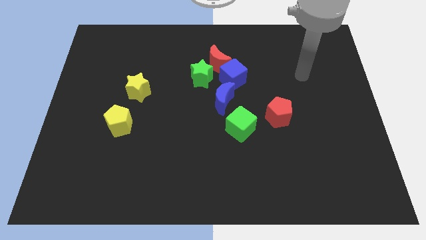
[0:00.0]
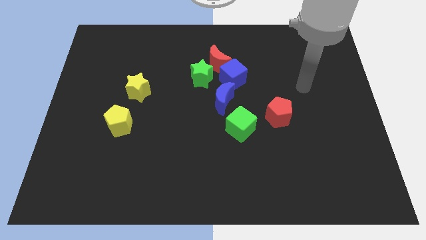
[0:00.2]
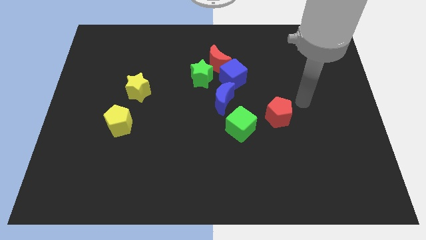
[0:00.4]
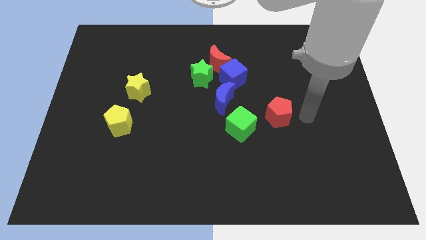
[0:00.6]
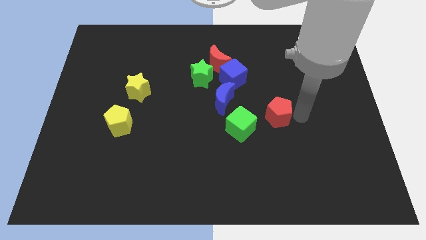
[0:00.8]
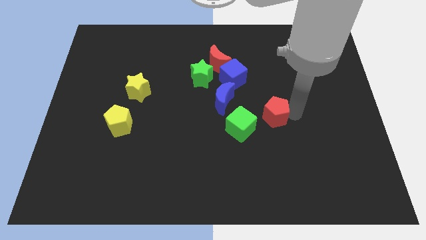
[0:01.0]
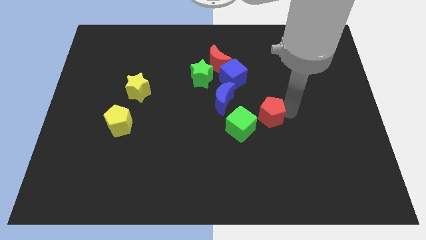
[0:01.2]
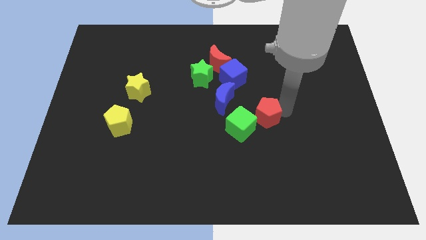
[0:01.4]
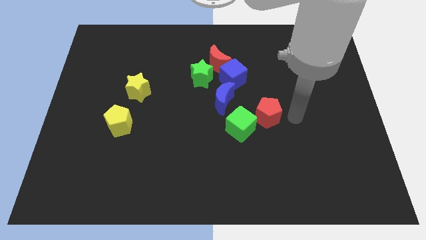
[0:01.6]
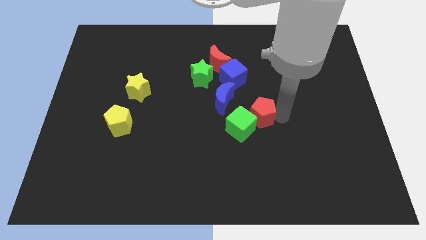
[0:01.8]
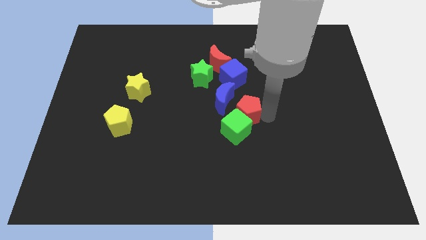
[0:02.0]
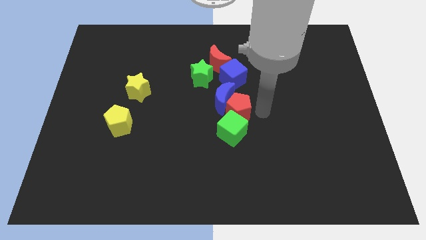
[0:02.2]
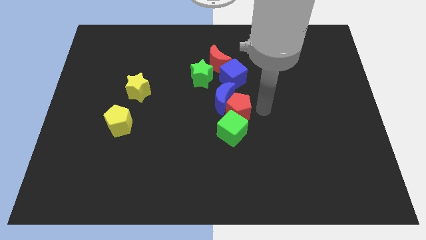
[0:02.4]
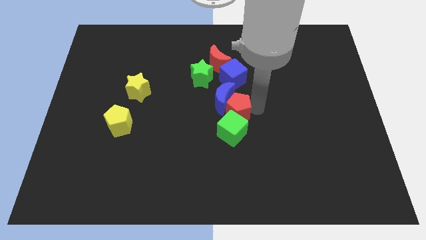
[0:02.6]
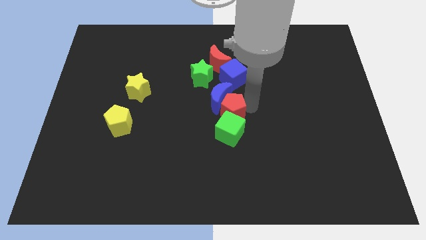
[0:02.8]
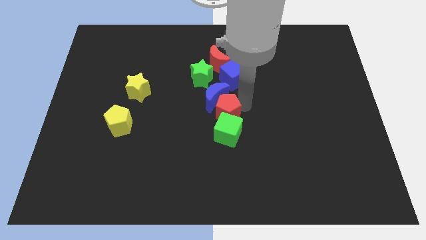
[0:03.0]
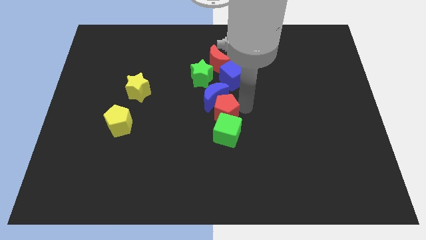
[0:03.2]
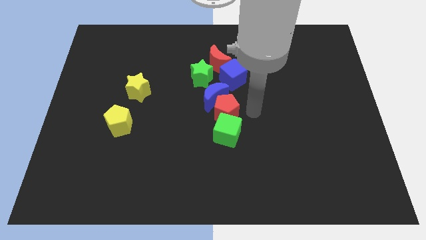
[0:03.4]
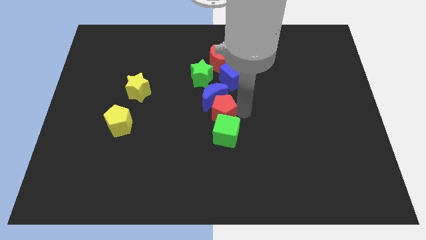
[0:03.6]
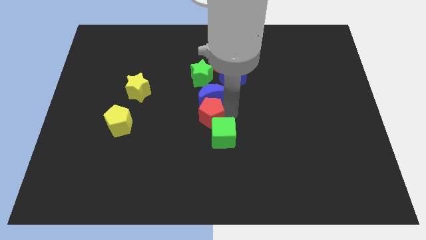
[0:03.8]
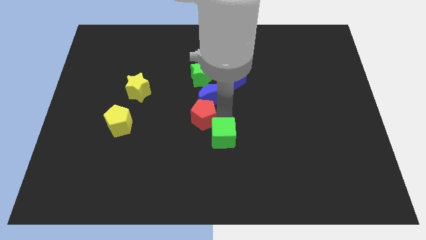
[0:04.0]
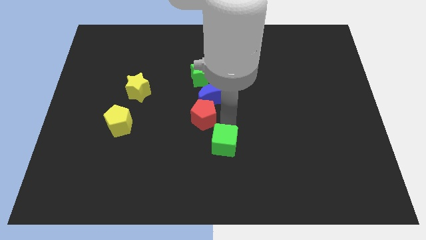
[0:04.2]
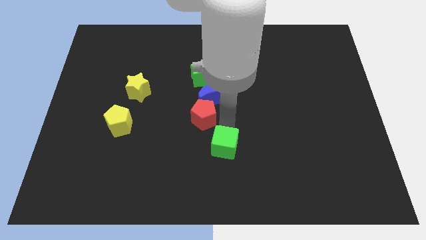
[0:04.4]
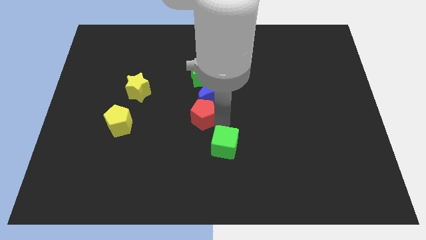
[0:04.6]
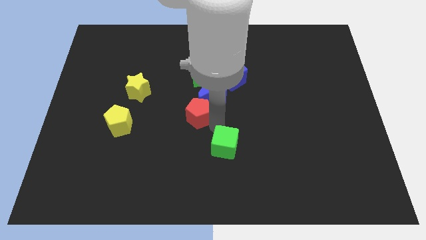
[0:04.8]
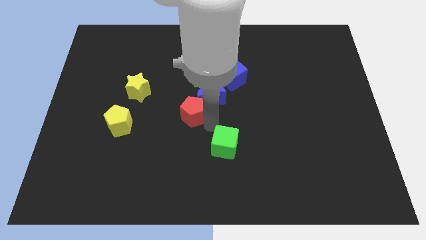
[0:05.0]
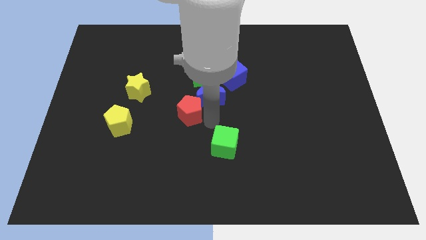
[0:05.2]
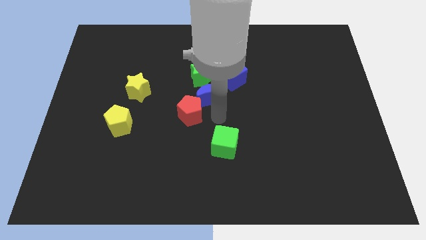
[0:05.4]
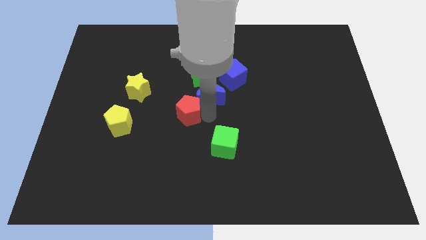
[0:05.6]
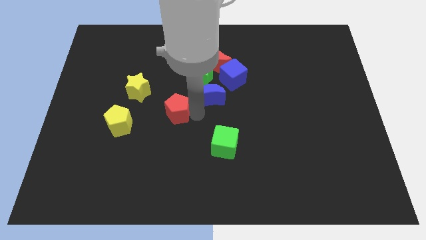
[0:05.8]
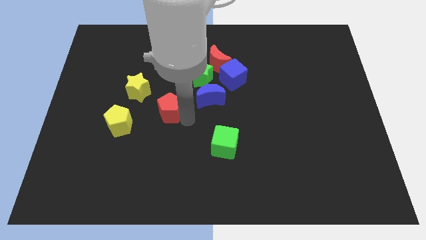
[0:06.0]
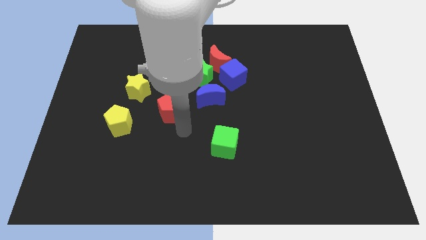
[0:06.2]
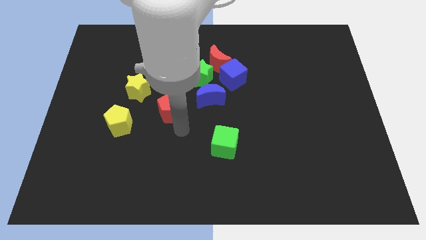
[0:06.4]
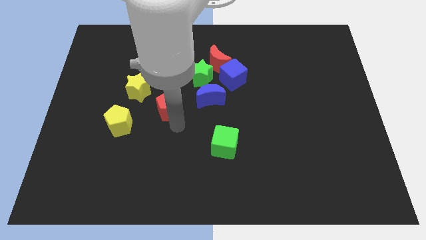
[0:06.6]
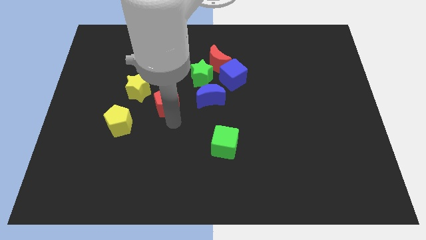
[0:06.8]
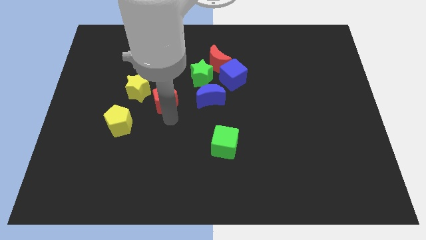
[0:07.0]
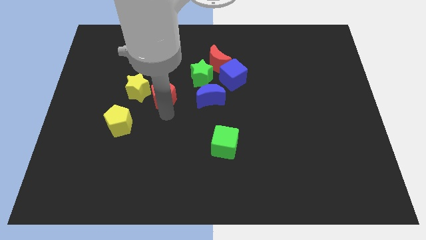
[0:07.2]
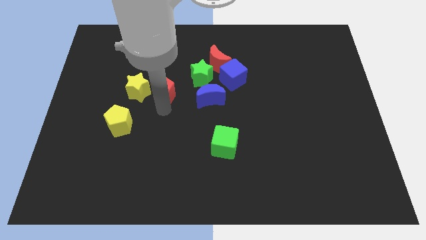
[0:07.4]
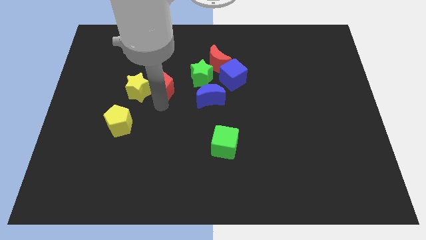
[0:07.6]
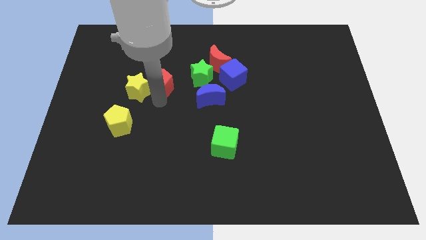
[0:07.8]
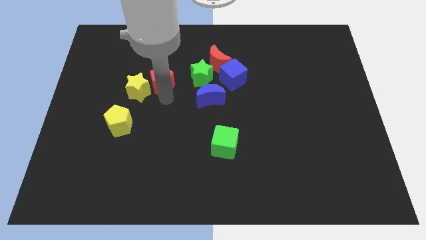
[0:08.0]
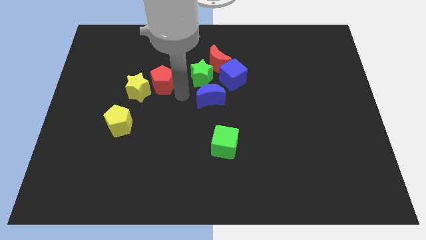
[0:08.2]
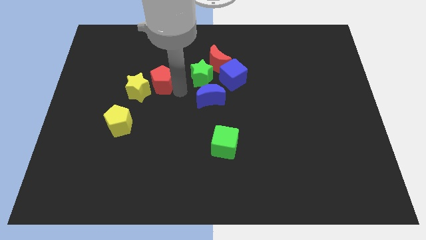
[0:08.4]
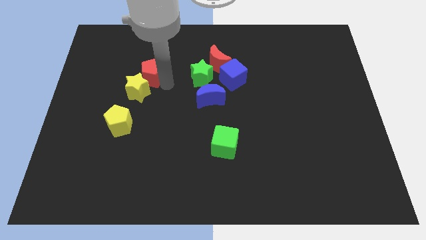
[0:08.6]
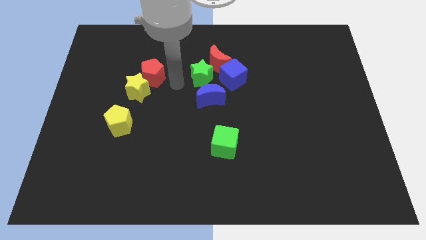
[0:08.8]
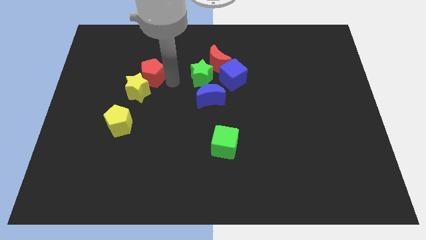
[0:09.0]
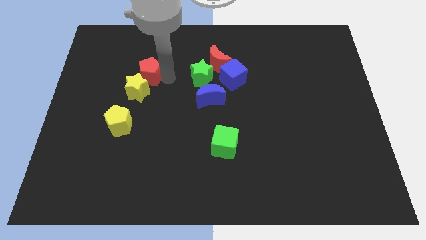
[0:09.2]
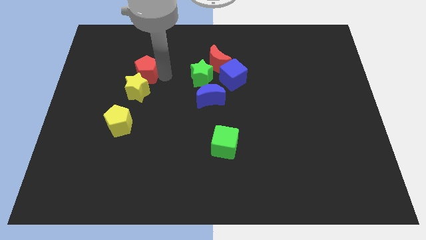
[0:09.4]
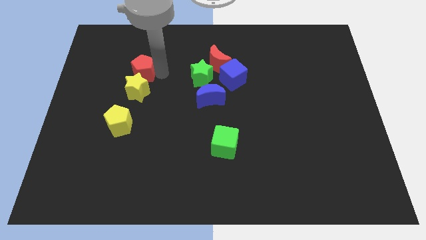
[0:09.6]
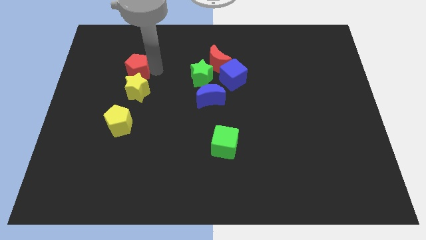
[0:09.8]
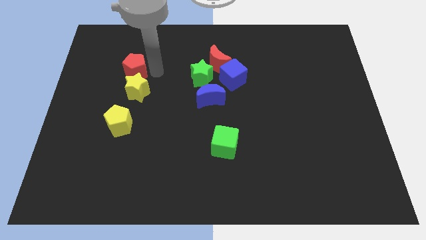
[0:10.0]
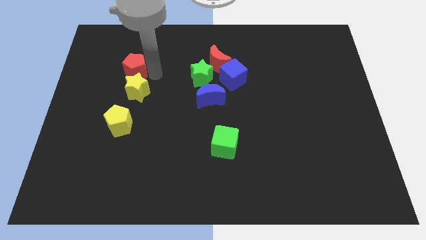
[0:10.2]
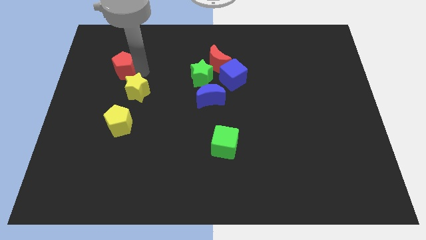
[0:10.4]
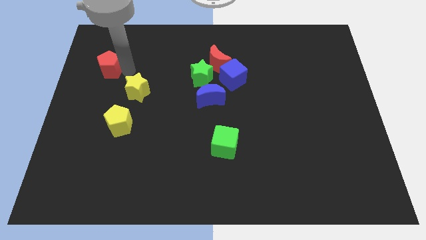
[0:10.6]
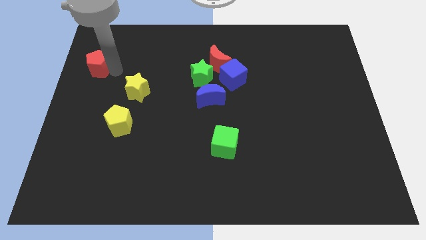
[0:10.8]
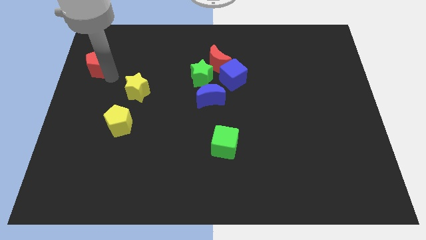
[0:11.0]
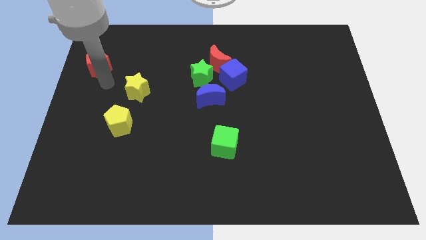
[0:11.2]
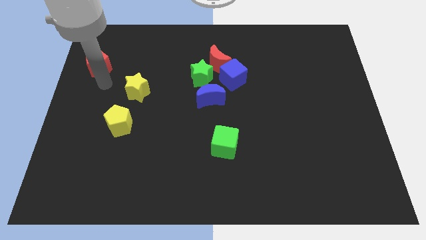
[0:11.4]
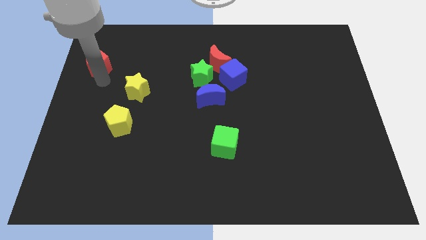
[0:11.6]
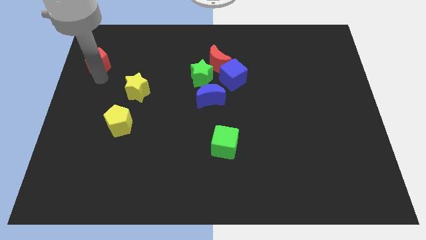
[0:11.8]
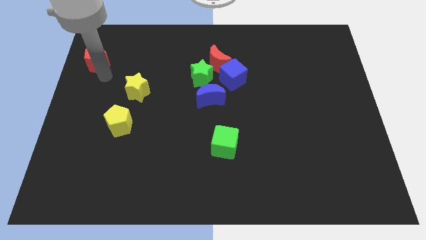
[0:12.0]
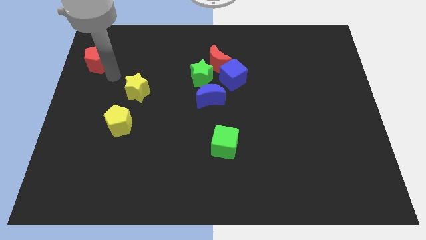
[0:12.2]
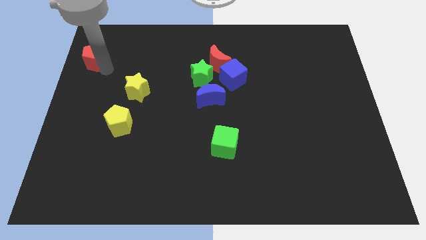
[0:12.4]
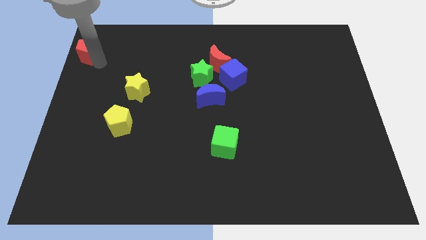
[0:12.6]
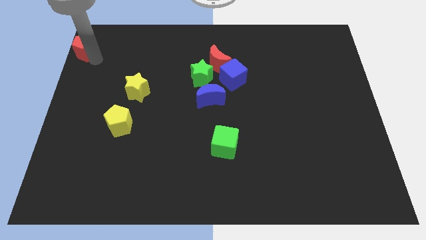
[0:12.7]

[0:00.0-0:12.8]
slide the red pentagon to the top left corner

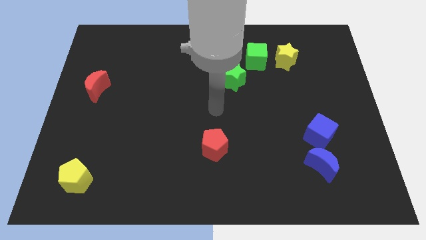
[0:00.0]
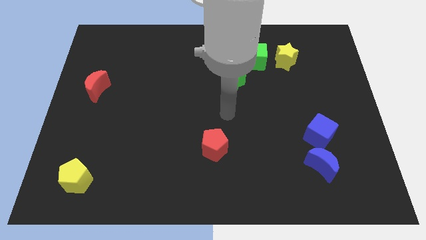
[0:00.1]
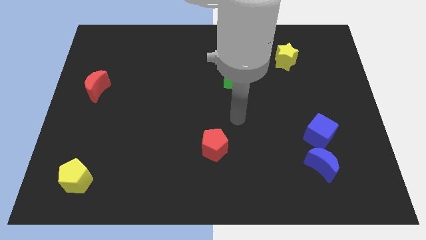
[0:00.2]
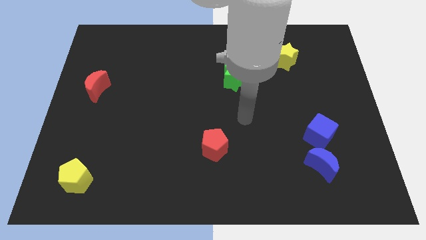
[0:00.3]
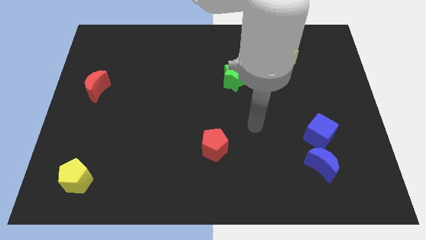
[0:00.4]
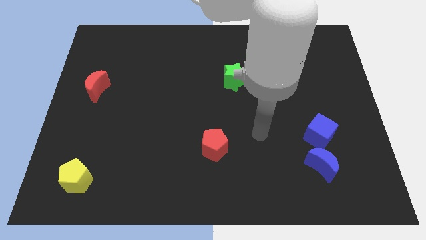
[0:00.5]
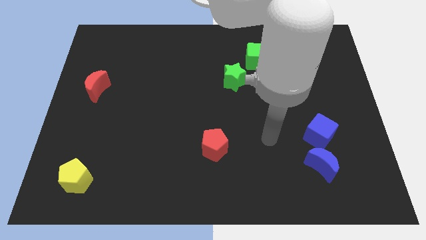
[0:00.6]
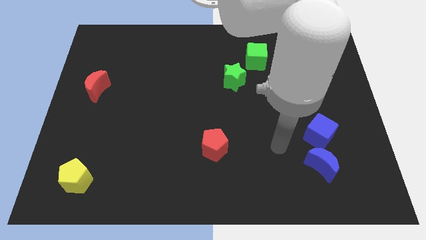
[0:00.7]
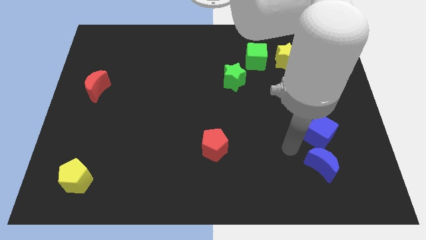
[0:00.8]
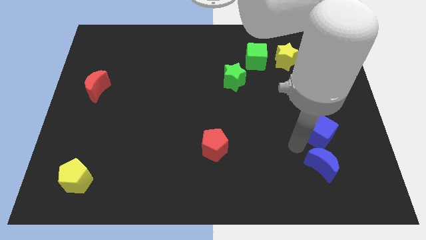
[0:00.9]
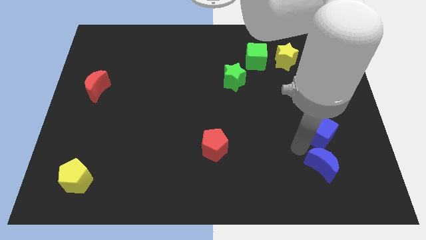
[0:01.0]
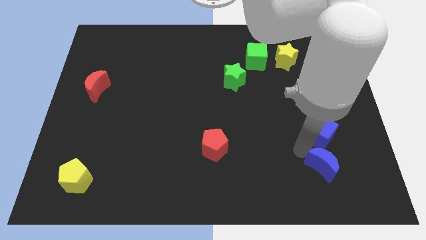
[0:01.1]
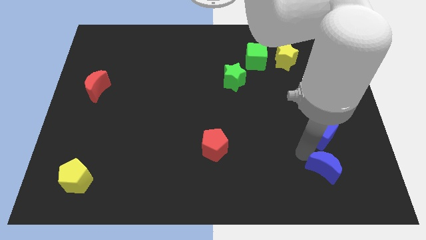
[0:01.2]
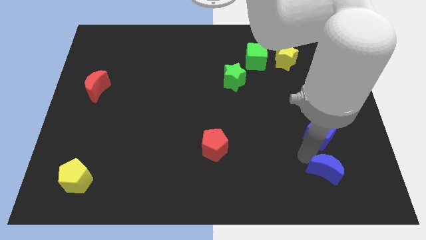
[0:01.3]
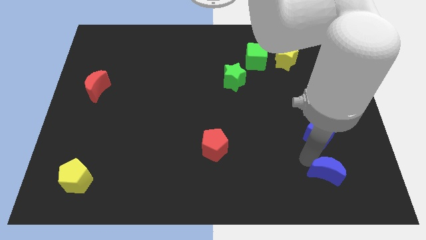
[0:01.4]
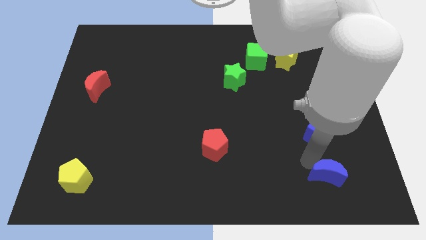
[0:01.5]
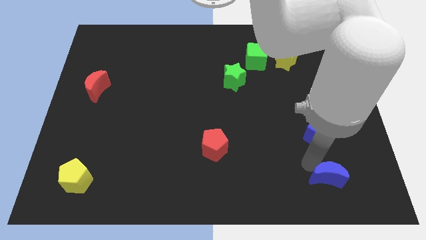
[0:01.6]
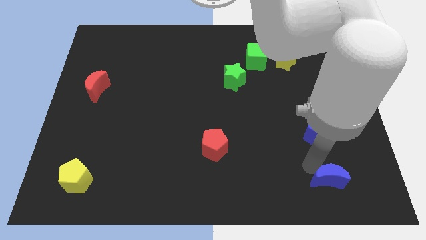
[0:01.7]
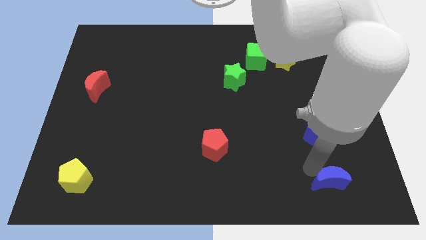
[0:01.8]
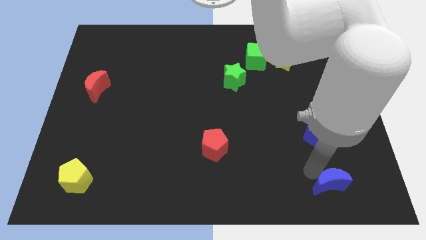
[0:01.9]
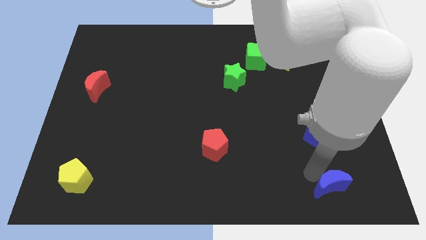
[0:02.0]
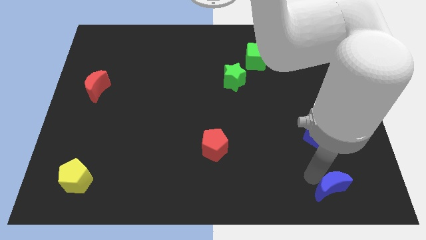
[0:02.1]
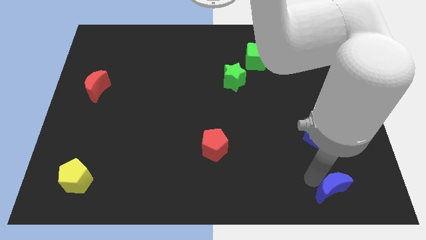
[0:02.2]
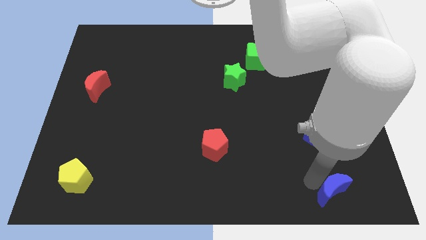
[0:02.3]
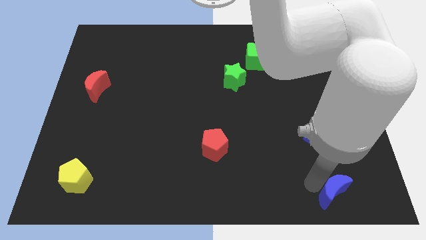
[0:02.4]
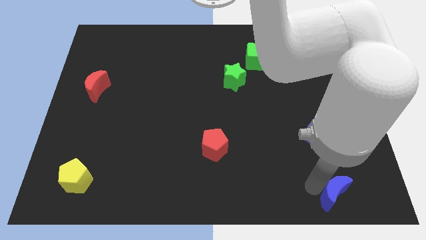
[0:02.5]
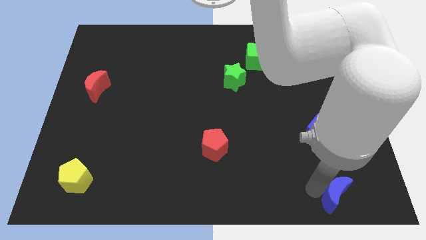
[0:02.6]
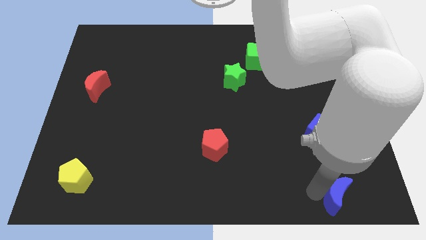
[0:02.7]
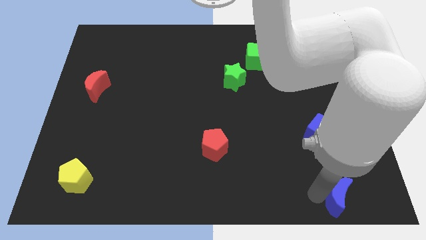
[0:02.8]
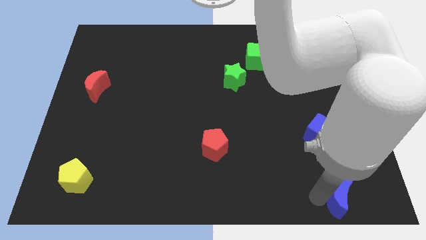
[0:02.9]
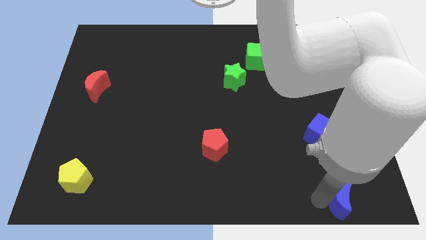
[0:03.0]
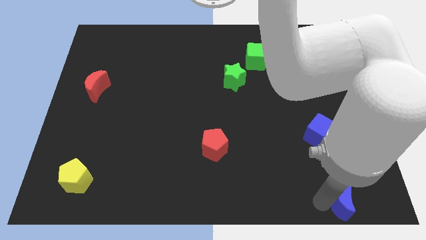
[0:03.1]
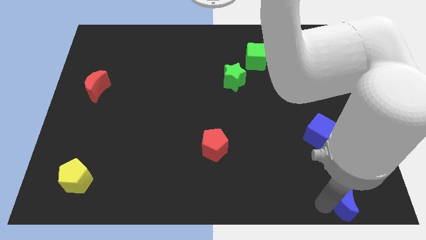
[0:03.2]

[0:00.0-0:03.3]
push the blue moon to the bottom right
